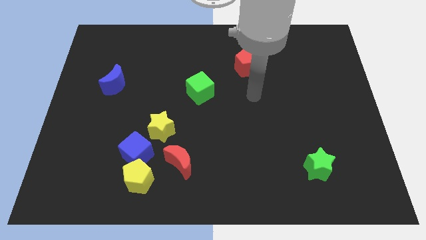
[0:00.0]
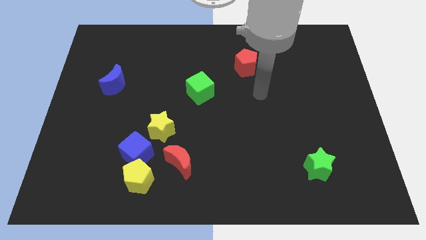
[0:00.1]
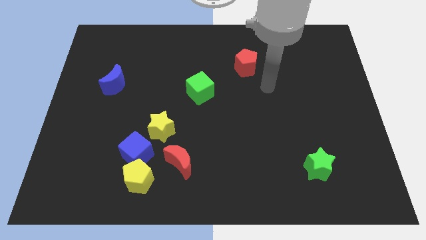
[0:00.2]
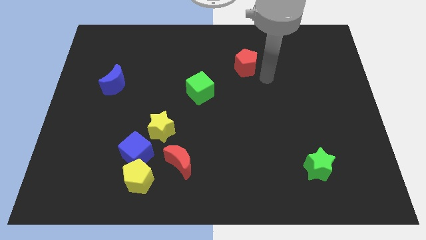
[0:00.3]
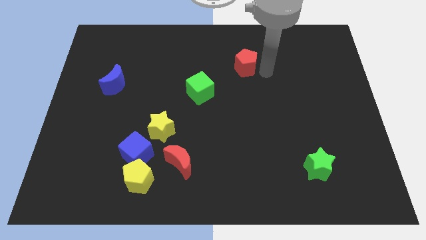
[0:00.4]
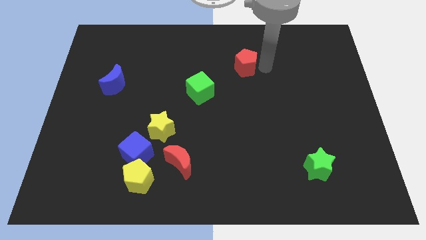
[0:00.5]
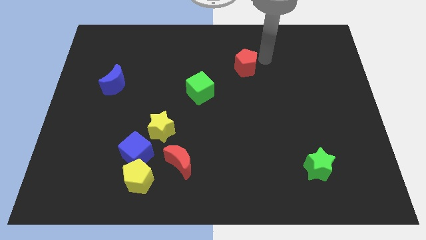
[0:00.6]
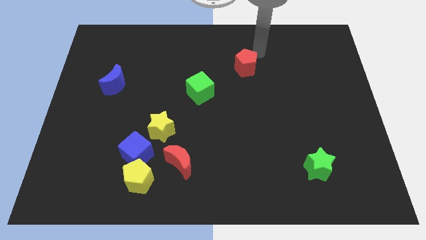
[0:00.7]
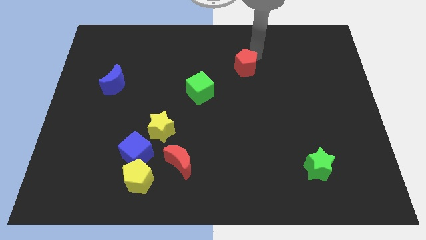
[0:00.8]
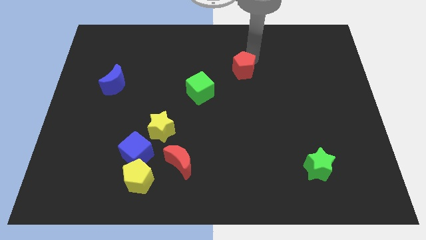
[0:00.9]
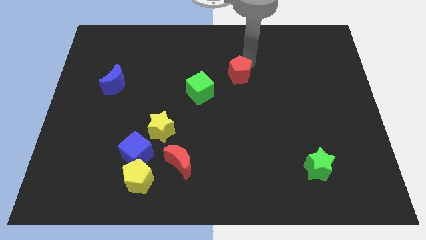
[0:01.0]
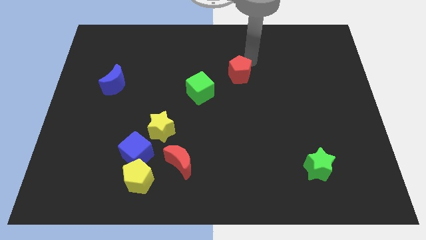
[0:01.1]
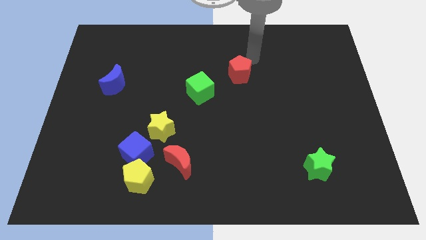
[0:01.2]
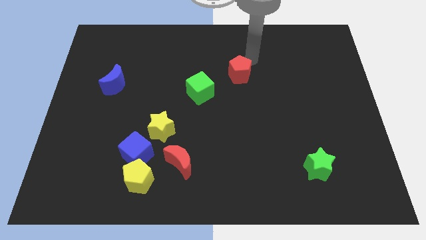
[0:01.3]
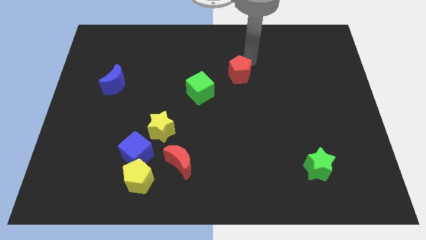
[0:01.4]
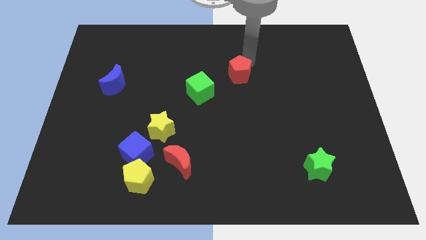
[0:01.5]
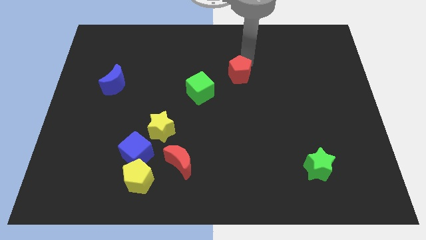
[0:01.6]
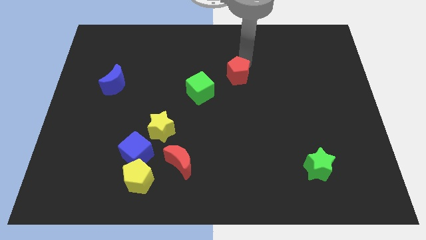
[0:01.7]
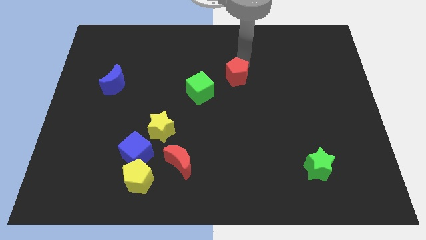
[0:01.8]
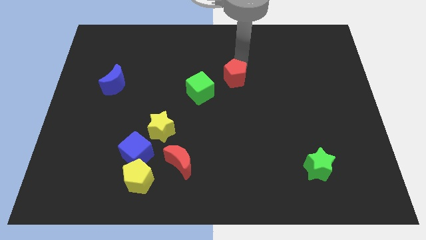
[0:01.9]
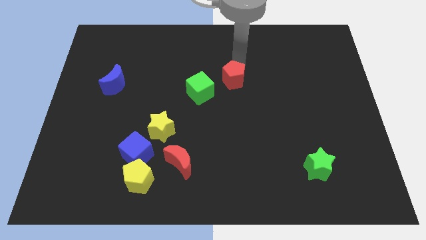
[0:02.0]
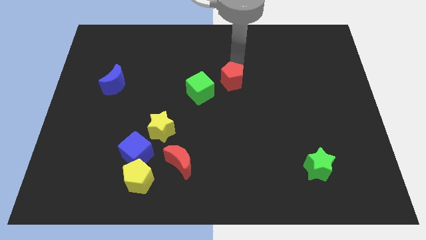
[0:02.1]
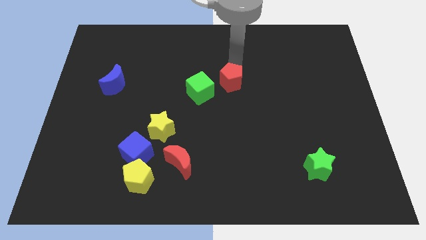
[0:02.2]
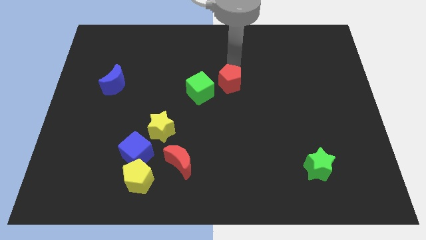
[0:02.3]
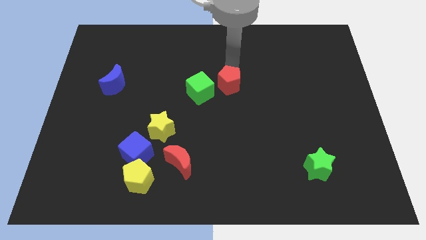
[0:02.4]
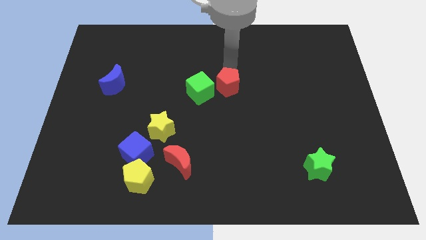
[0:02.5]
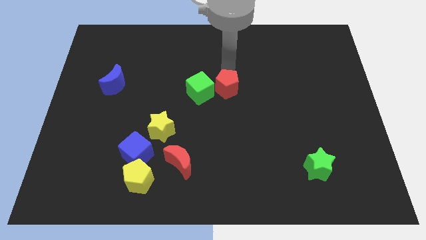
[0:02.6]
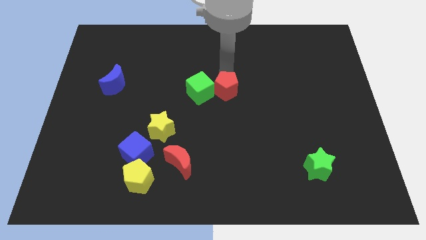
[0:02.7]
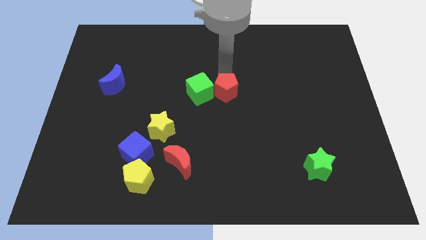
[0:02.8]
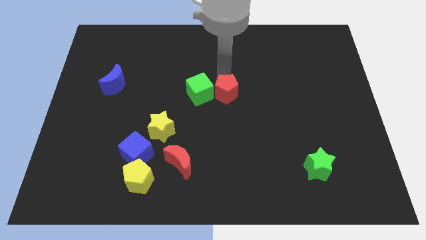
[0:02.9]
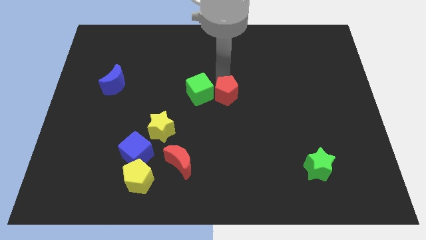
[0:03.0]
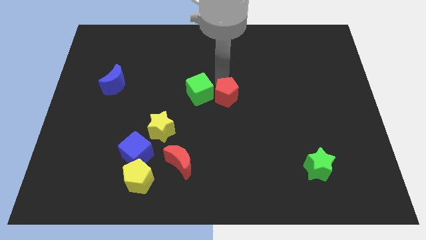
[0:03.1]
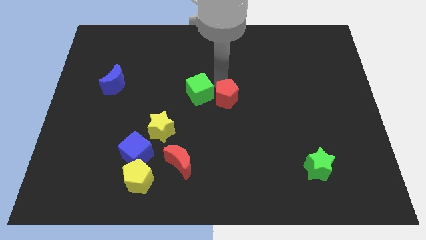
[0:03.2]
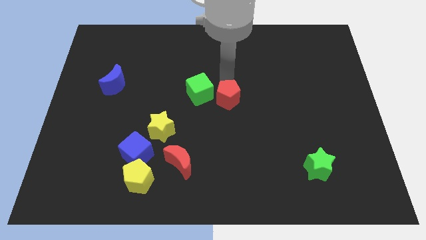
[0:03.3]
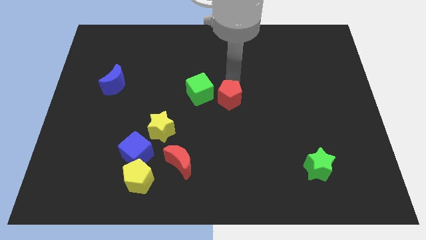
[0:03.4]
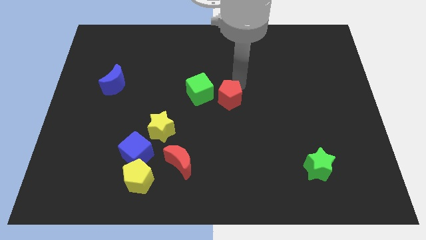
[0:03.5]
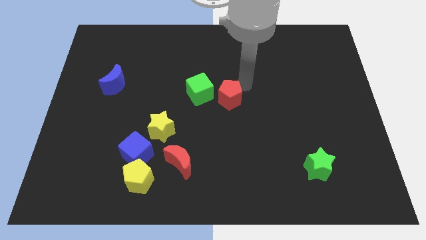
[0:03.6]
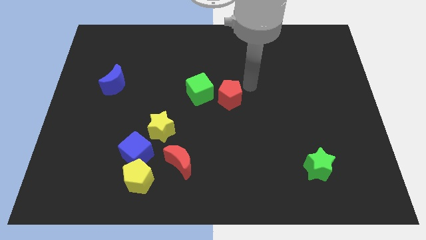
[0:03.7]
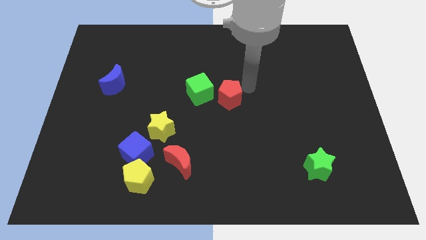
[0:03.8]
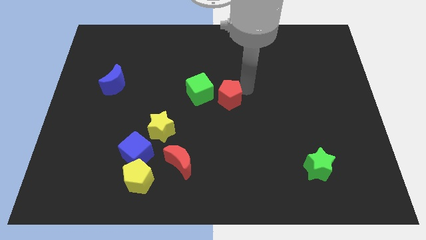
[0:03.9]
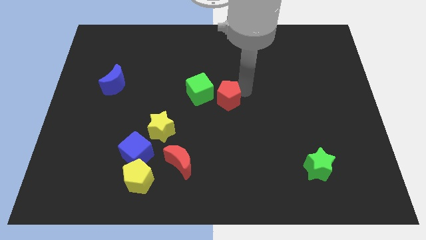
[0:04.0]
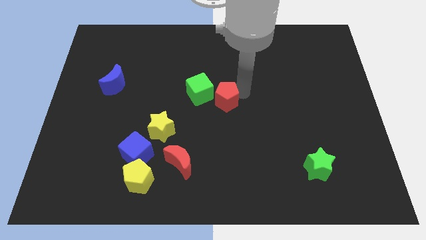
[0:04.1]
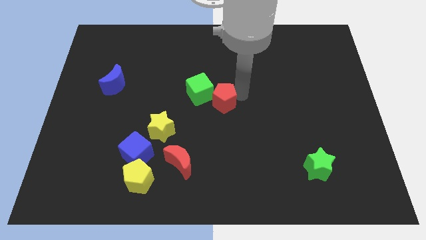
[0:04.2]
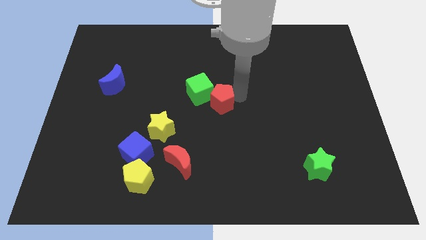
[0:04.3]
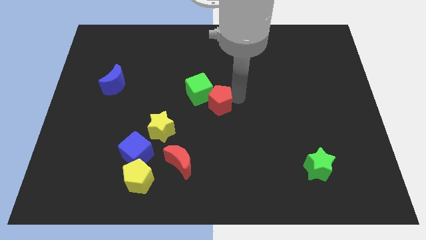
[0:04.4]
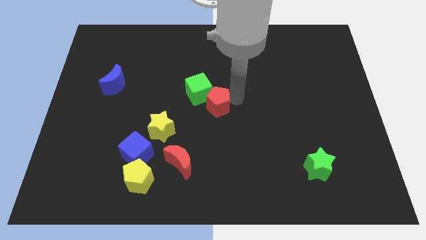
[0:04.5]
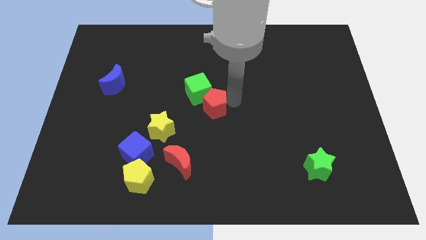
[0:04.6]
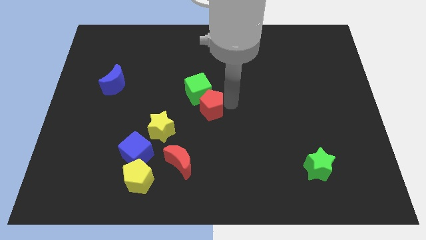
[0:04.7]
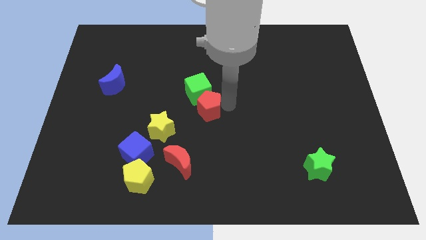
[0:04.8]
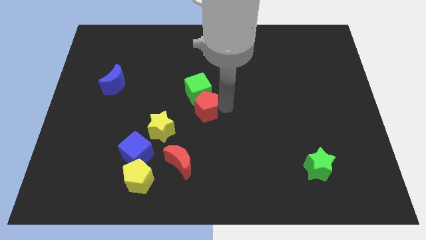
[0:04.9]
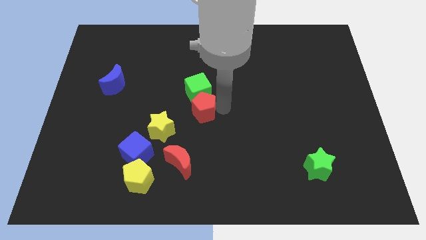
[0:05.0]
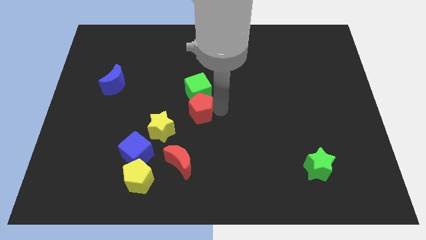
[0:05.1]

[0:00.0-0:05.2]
push the red pentagon to the top of the red moon

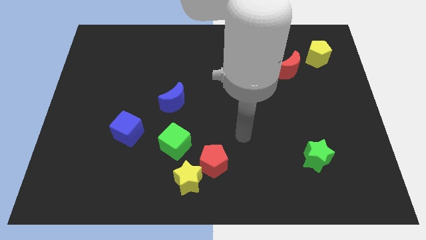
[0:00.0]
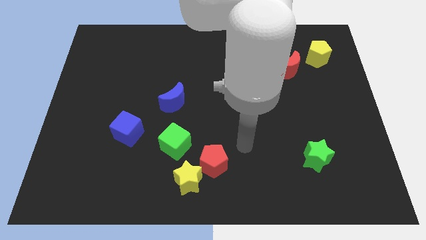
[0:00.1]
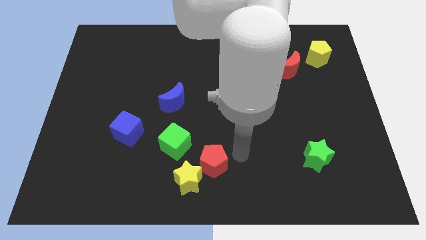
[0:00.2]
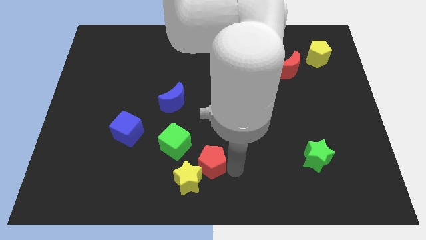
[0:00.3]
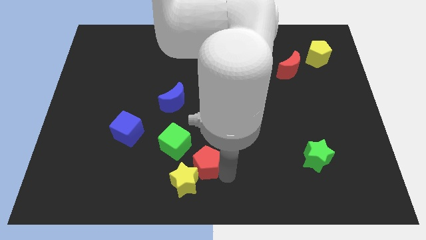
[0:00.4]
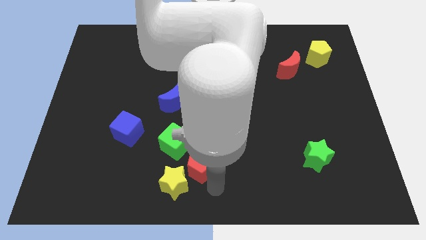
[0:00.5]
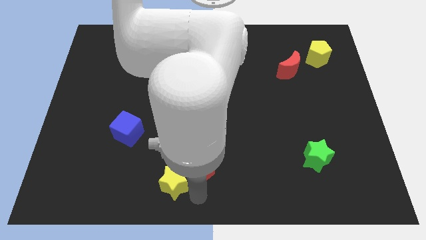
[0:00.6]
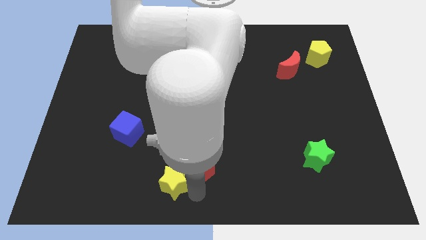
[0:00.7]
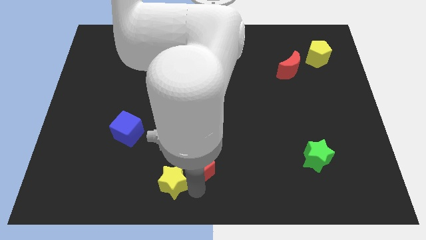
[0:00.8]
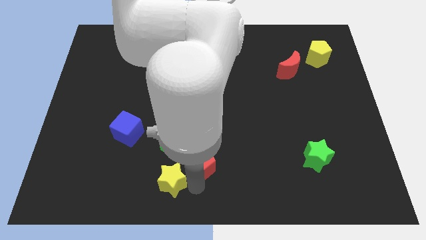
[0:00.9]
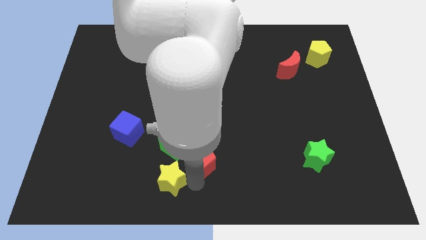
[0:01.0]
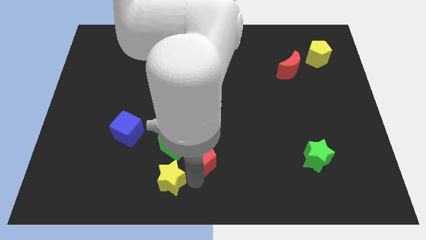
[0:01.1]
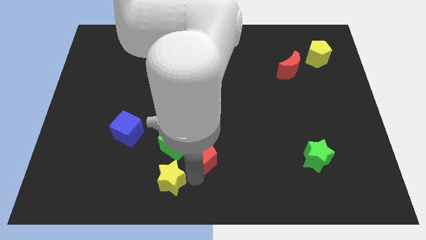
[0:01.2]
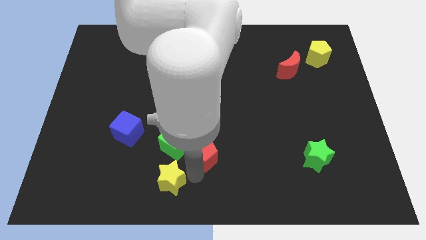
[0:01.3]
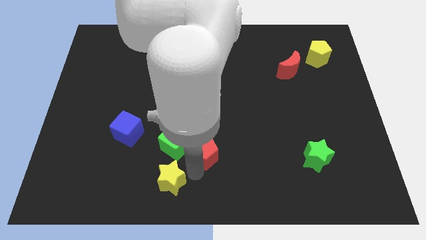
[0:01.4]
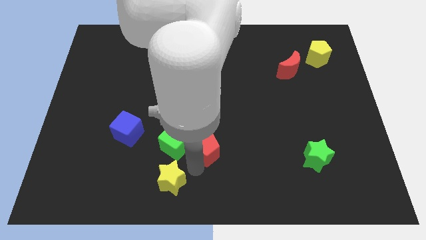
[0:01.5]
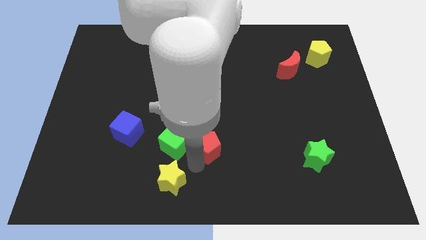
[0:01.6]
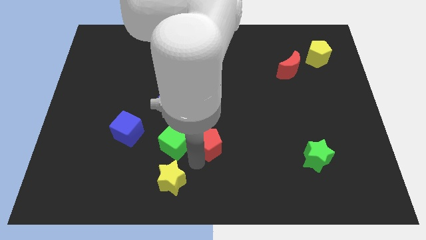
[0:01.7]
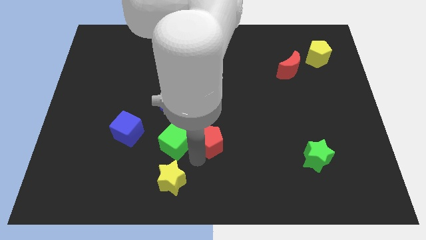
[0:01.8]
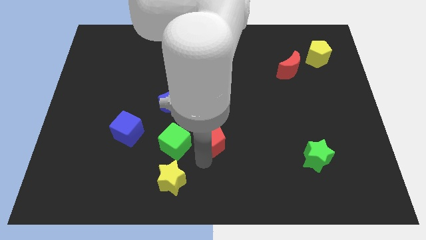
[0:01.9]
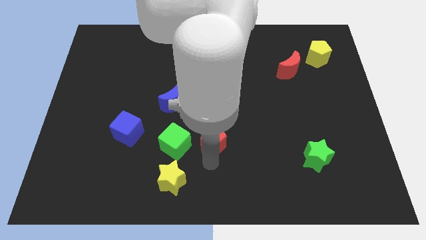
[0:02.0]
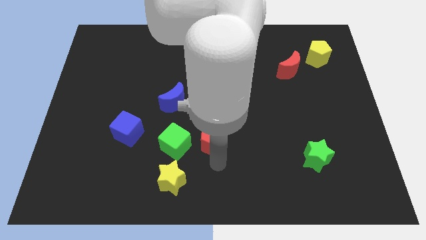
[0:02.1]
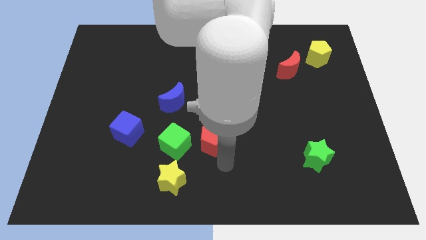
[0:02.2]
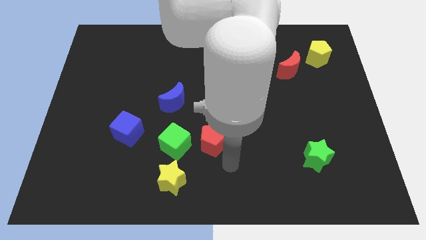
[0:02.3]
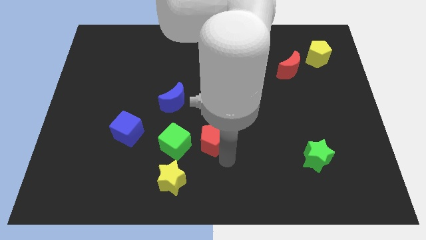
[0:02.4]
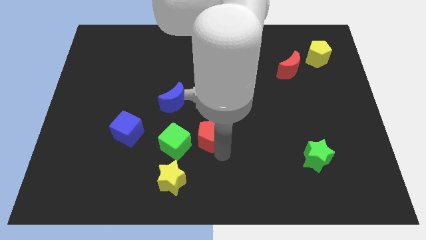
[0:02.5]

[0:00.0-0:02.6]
slide the red pentagon to the top right side of the green cube
